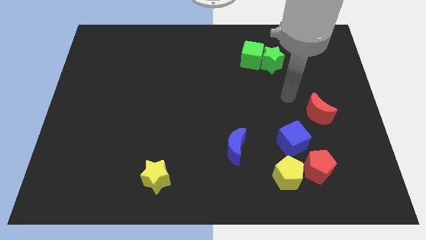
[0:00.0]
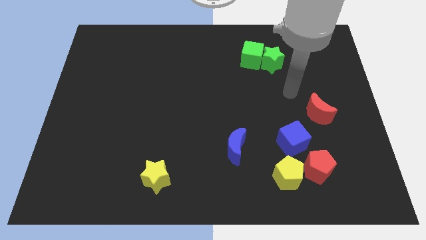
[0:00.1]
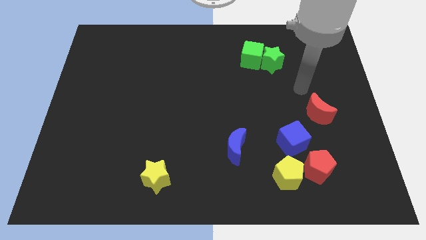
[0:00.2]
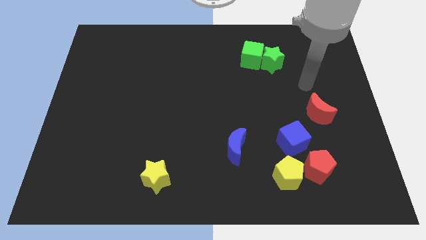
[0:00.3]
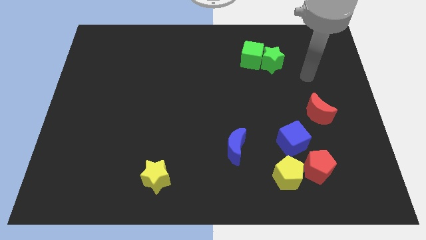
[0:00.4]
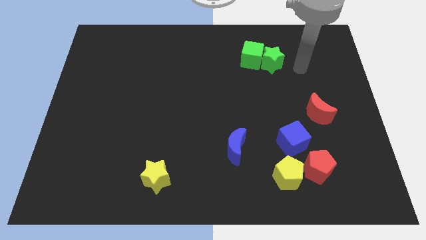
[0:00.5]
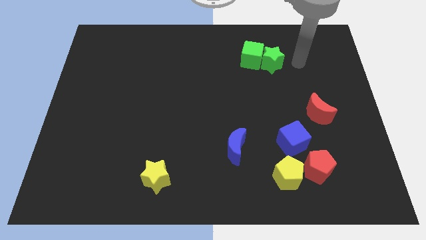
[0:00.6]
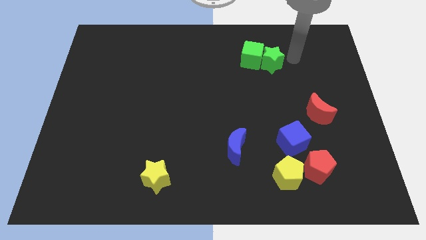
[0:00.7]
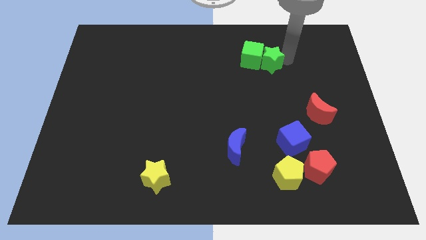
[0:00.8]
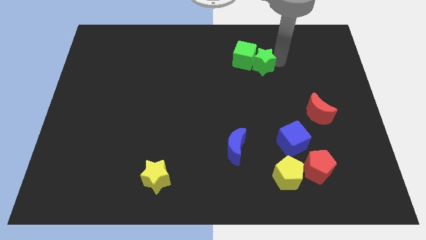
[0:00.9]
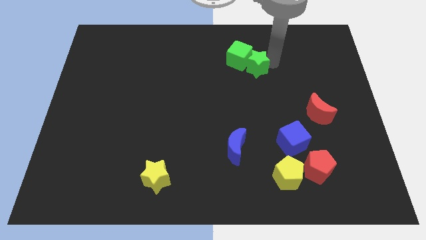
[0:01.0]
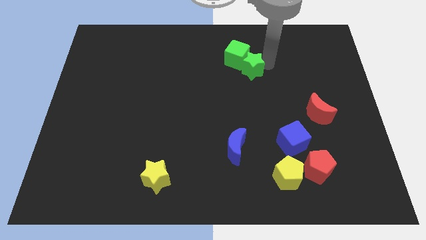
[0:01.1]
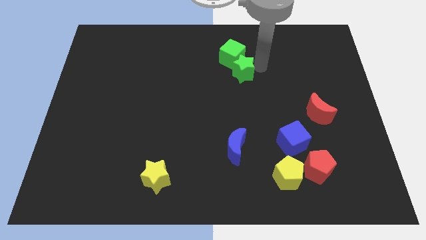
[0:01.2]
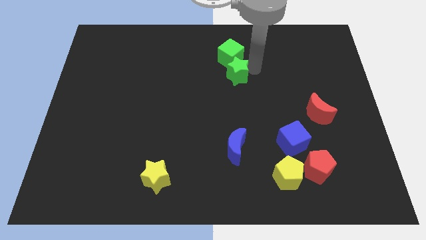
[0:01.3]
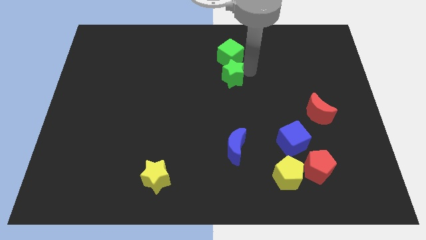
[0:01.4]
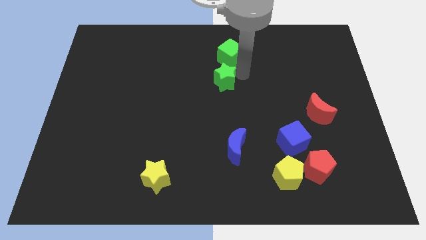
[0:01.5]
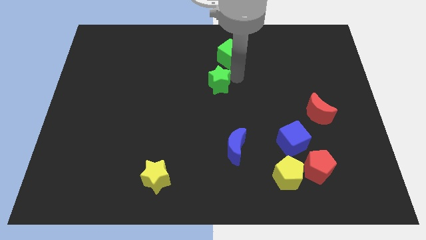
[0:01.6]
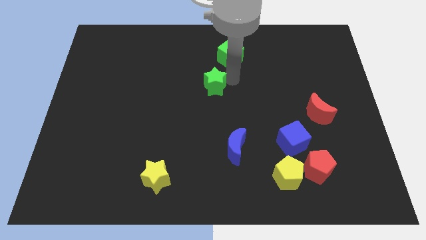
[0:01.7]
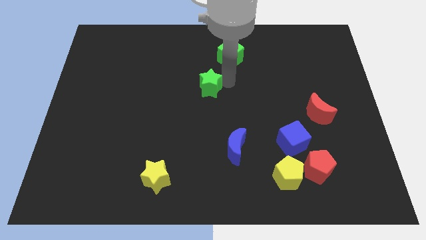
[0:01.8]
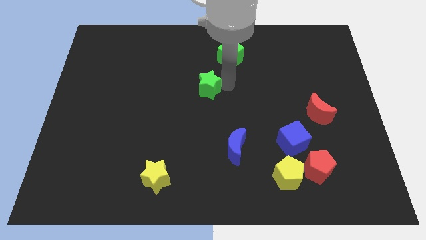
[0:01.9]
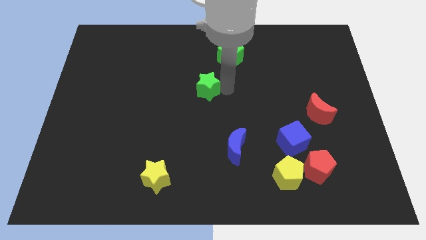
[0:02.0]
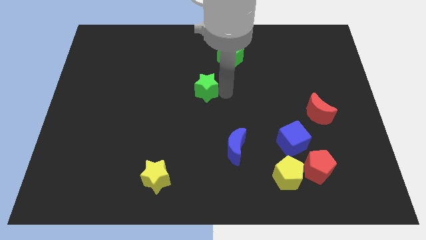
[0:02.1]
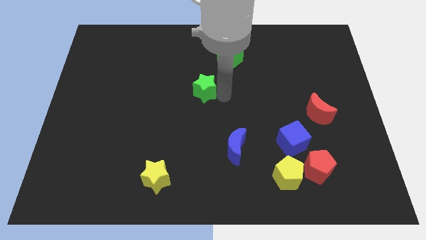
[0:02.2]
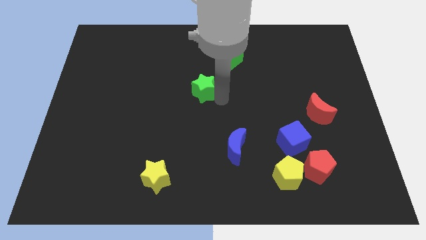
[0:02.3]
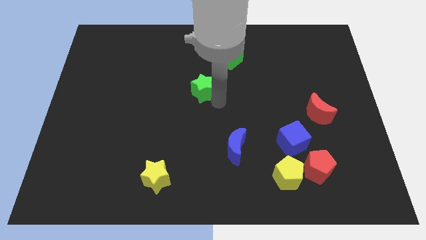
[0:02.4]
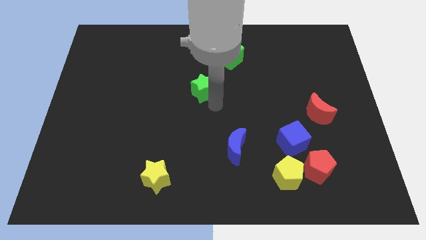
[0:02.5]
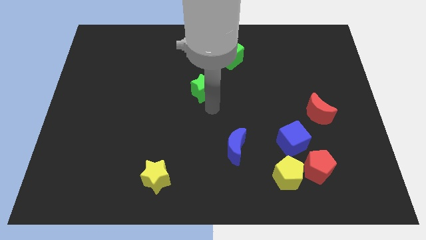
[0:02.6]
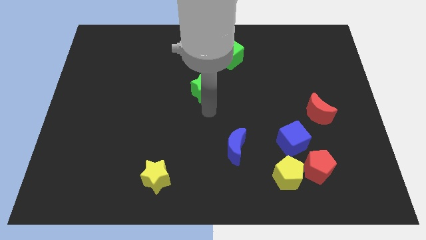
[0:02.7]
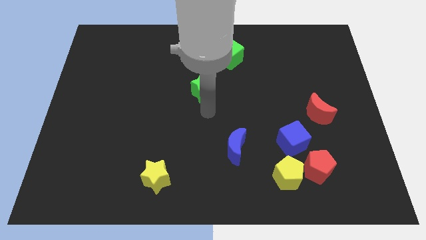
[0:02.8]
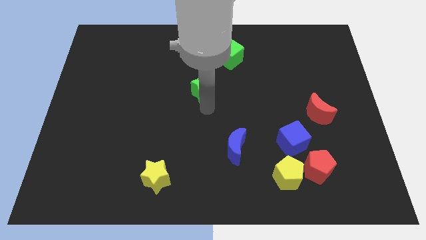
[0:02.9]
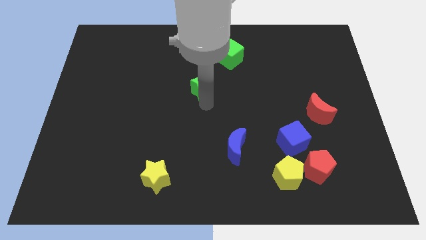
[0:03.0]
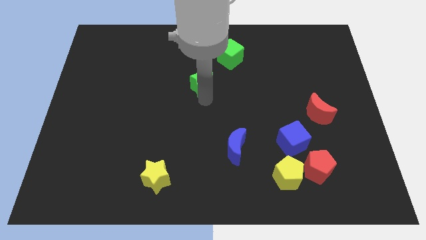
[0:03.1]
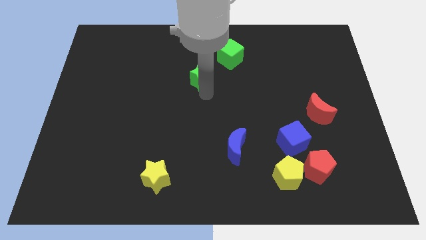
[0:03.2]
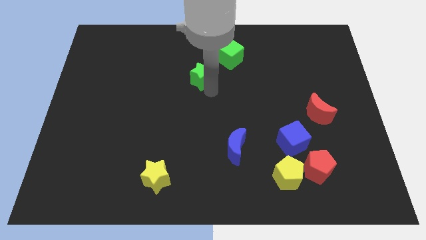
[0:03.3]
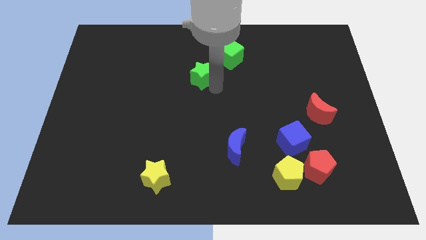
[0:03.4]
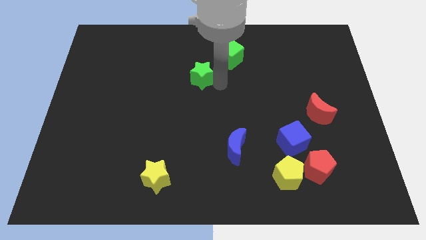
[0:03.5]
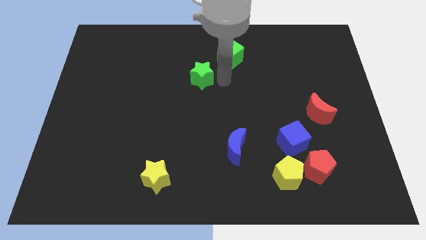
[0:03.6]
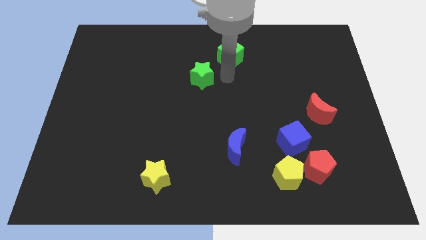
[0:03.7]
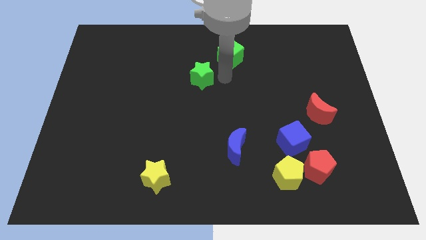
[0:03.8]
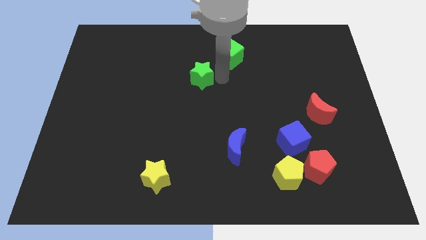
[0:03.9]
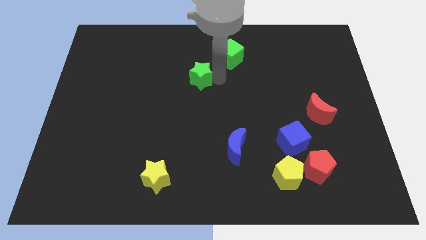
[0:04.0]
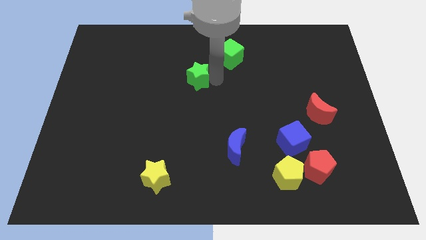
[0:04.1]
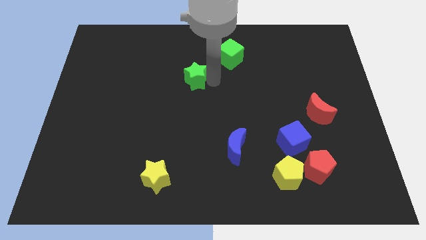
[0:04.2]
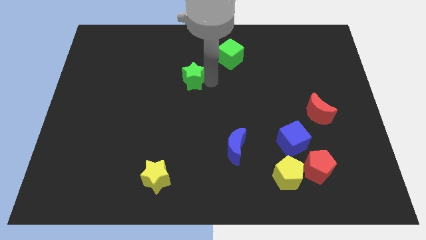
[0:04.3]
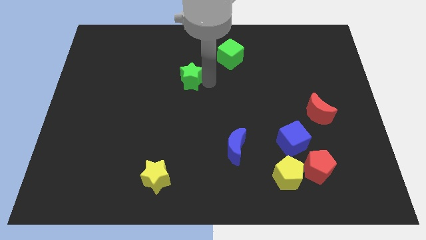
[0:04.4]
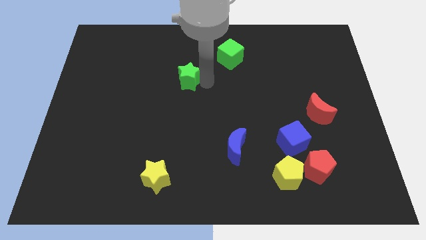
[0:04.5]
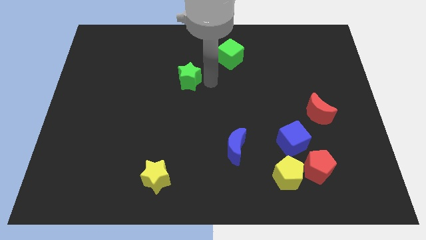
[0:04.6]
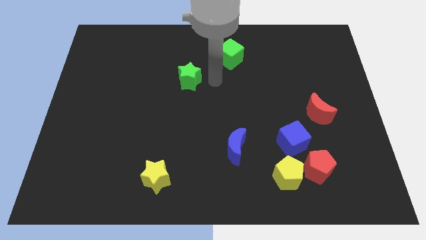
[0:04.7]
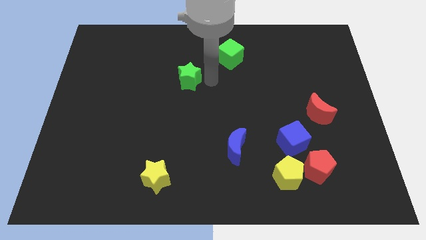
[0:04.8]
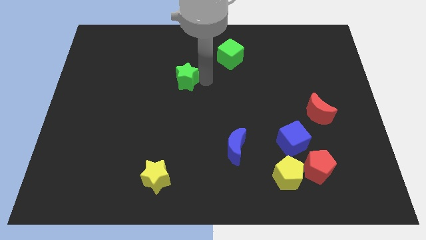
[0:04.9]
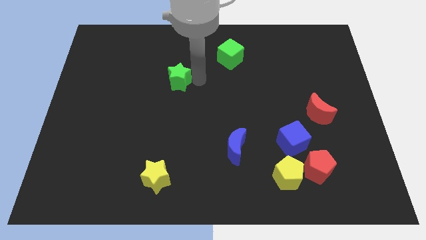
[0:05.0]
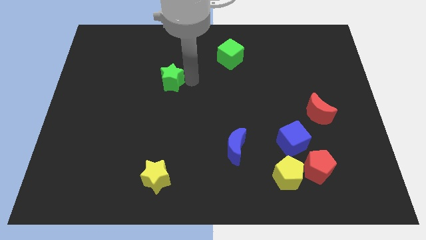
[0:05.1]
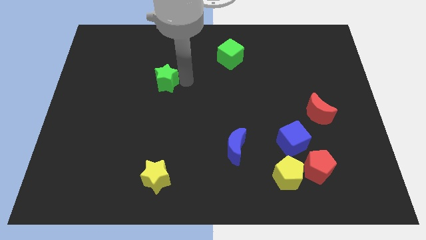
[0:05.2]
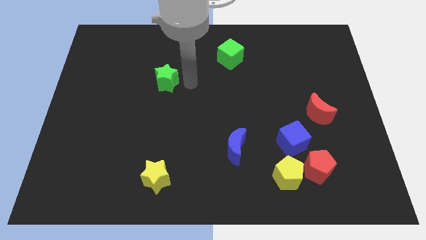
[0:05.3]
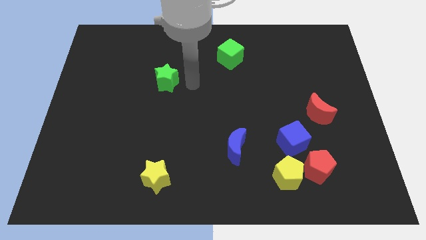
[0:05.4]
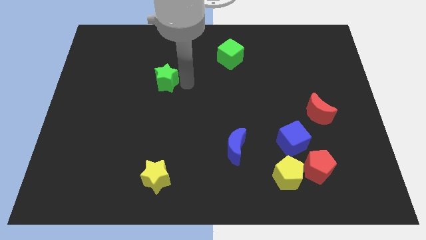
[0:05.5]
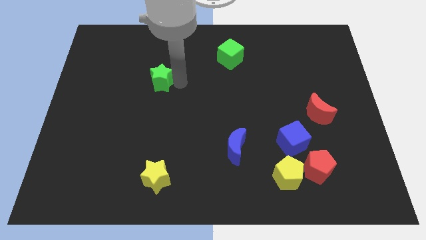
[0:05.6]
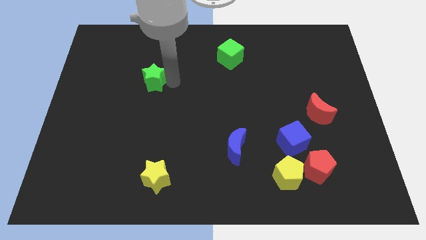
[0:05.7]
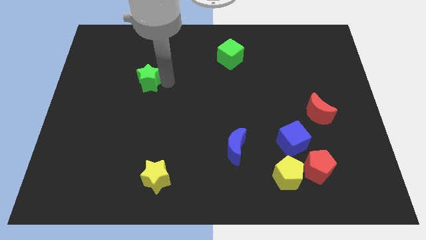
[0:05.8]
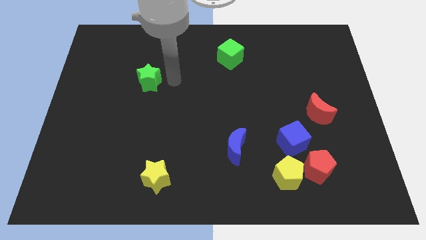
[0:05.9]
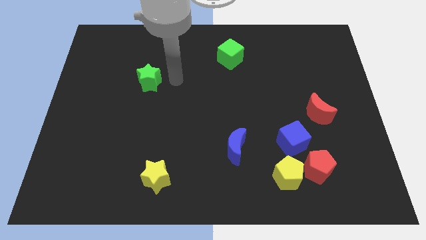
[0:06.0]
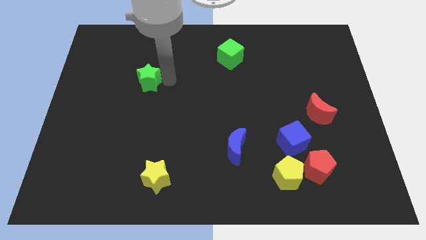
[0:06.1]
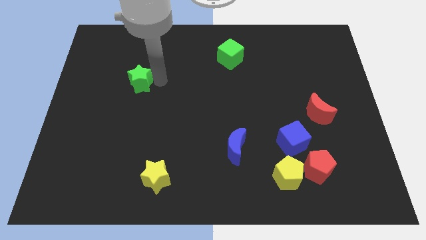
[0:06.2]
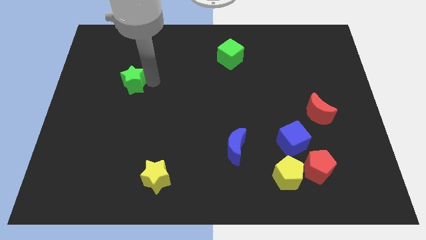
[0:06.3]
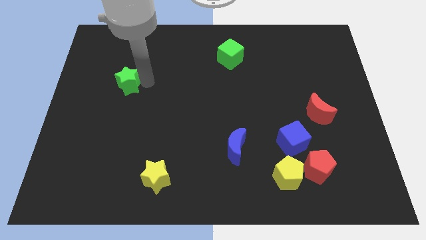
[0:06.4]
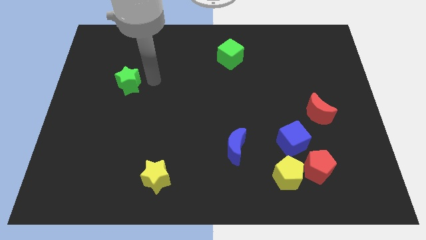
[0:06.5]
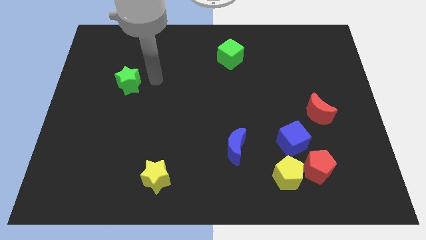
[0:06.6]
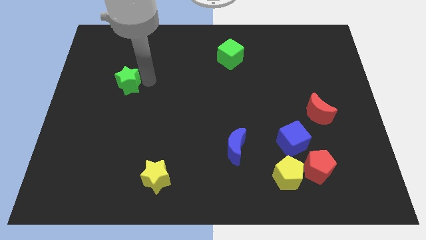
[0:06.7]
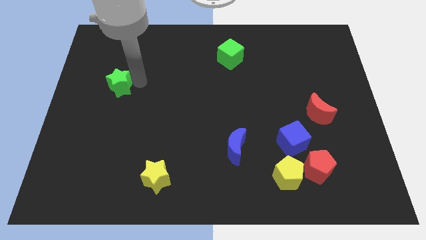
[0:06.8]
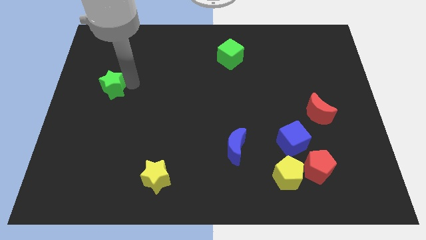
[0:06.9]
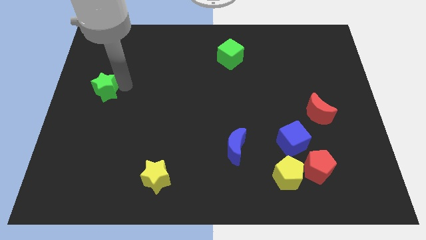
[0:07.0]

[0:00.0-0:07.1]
slide the green star to the left side of the board
